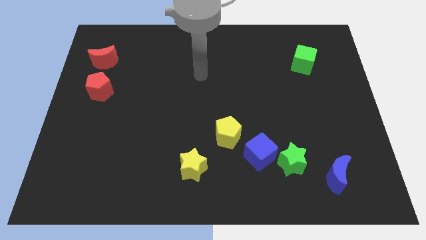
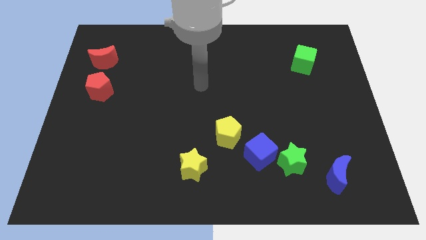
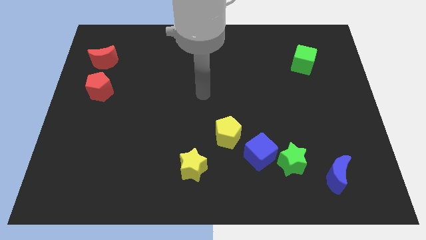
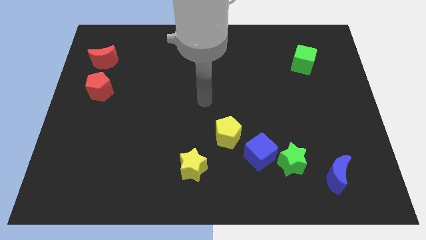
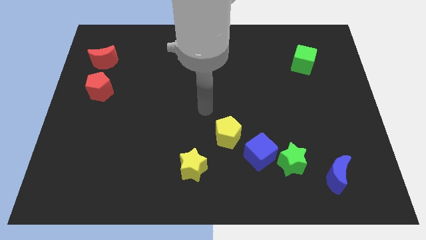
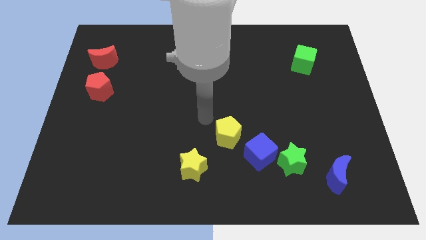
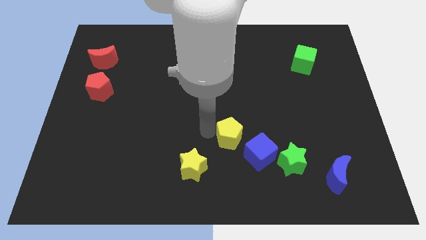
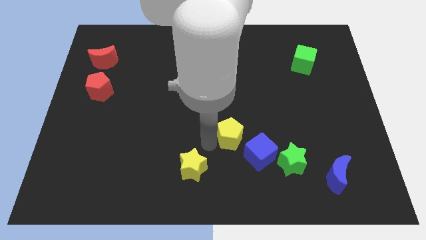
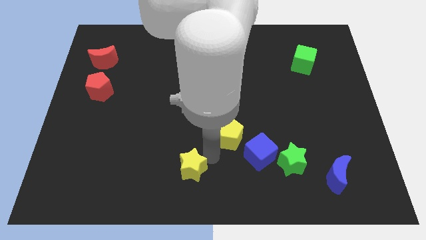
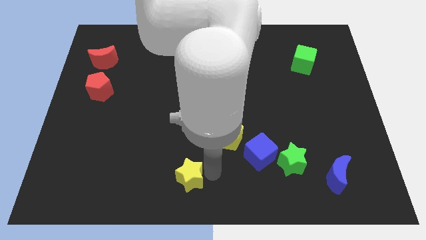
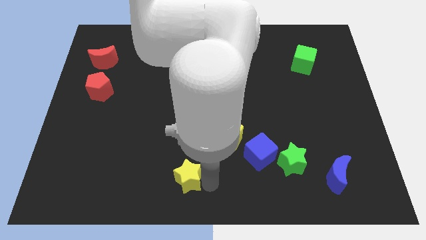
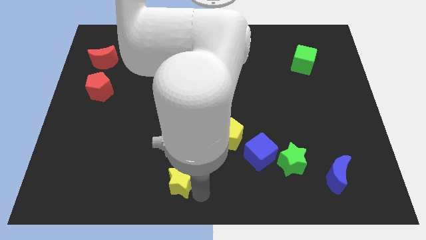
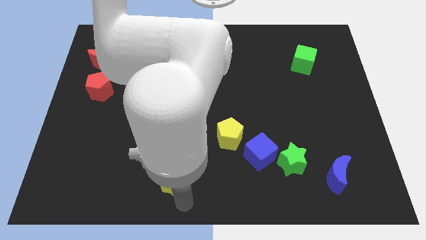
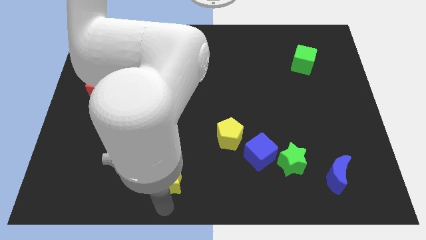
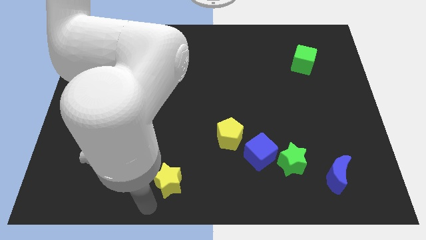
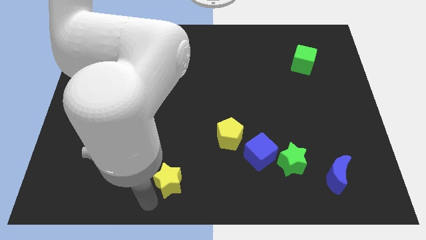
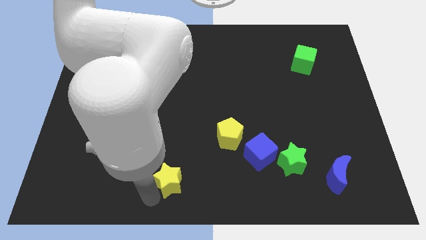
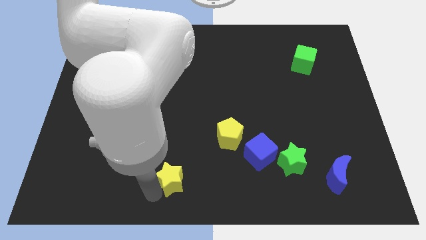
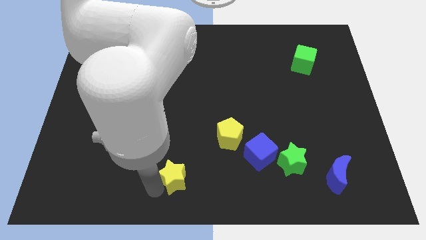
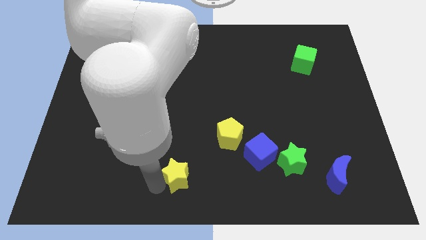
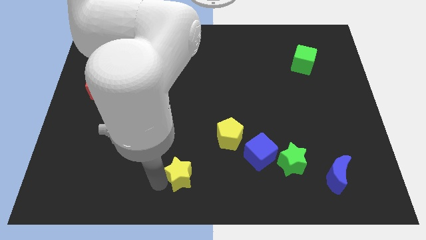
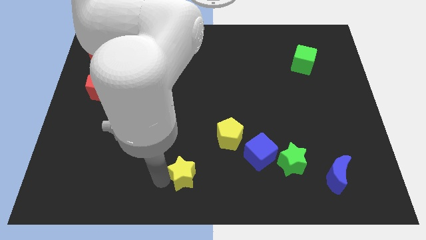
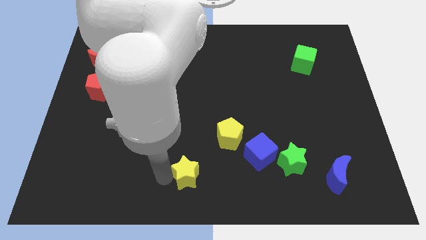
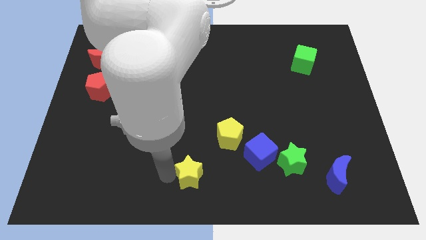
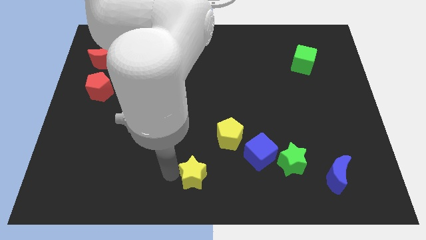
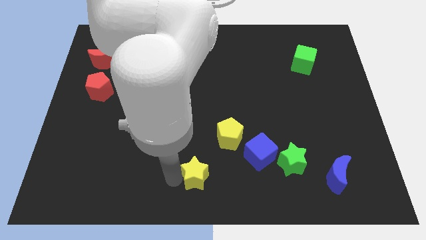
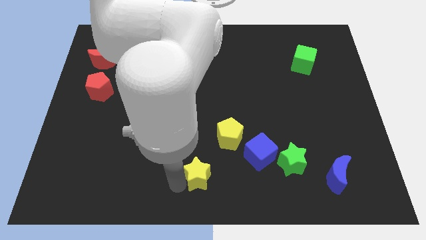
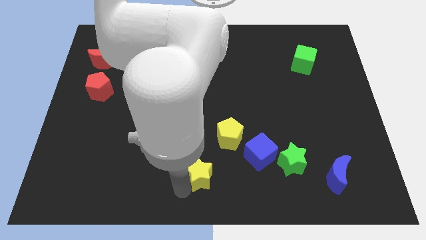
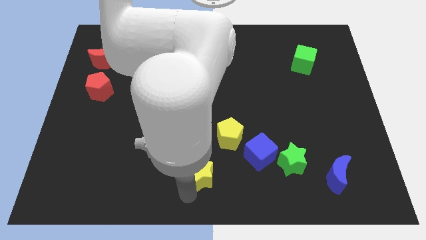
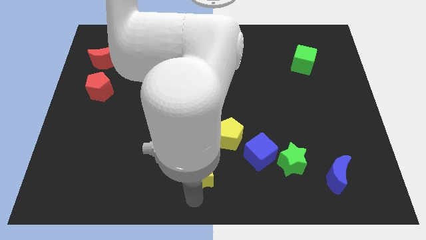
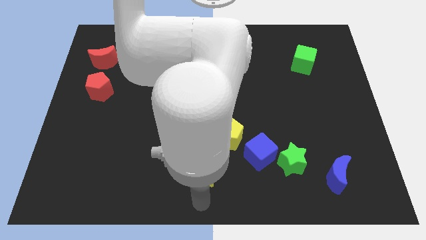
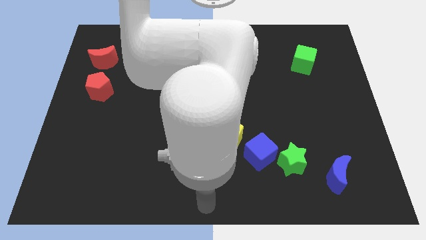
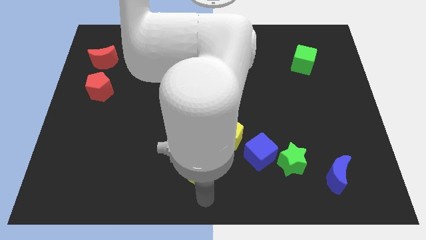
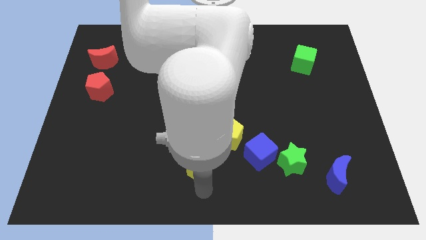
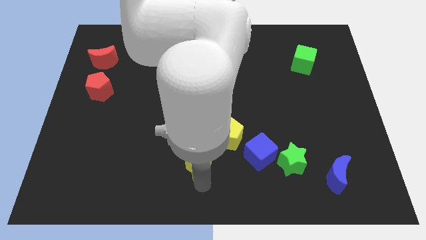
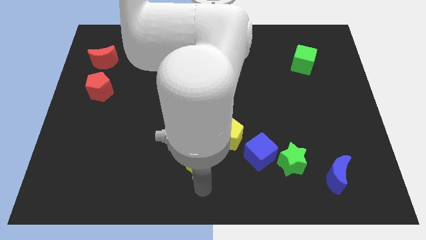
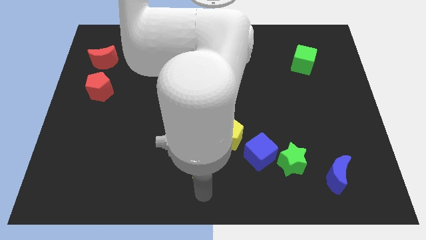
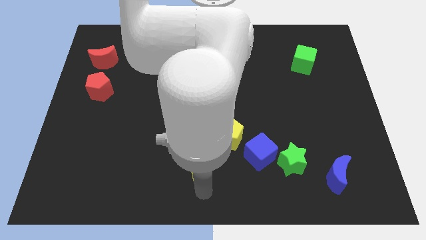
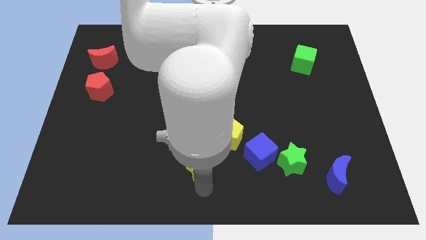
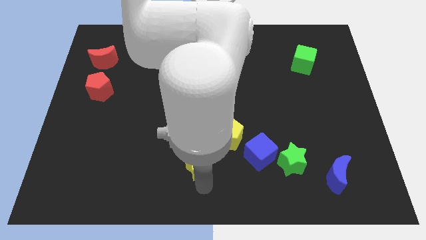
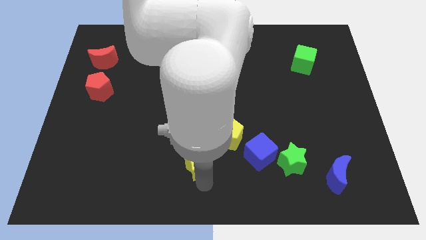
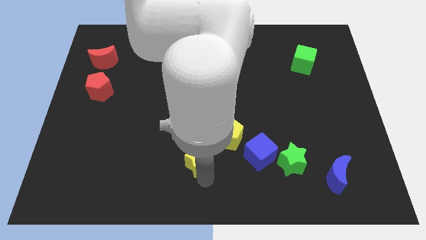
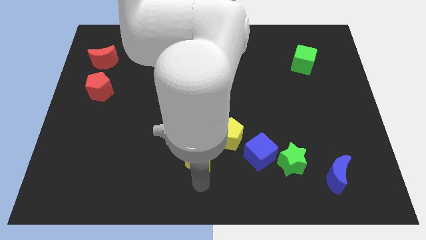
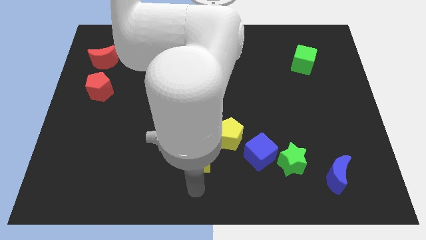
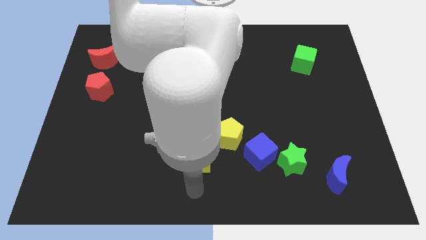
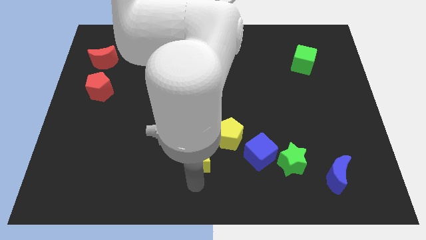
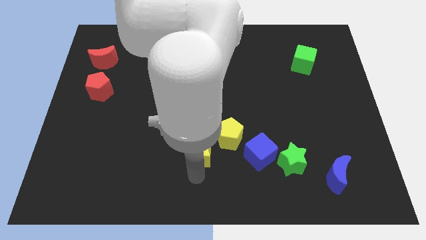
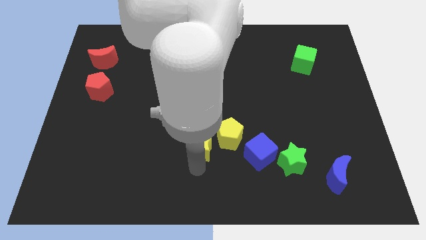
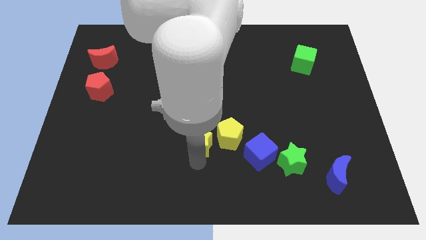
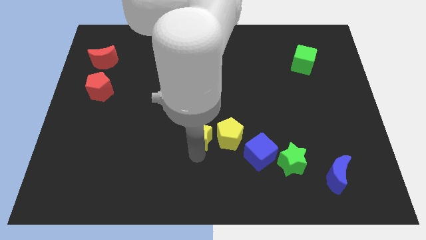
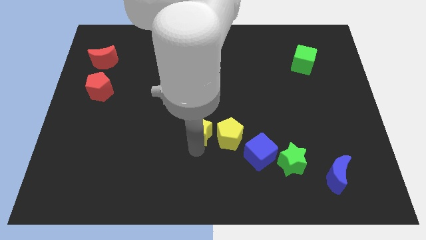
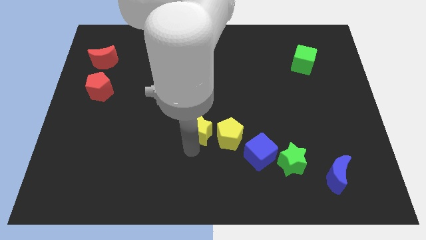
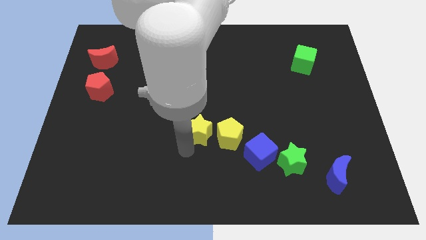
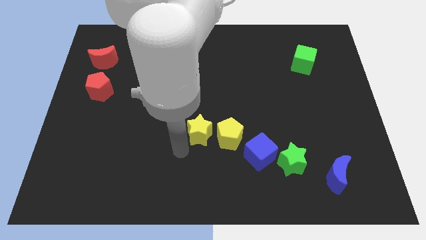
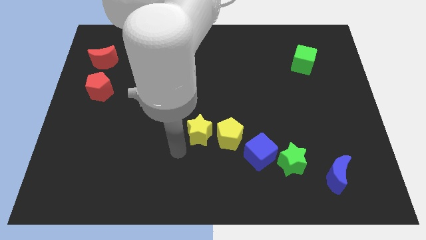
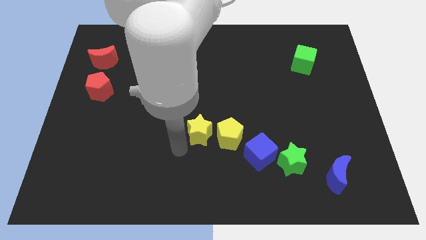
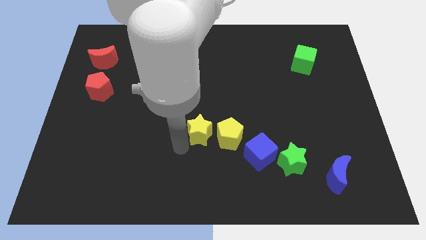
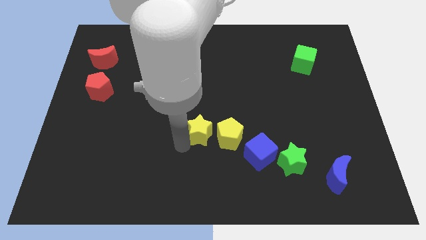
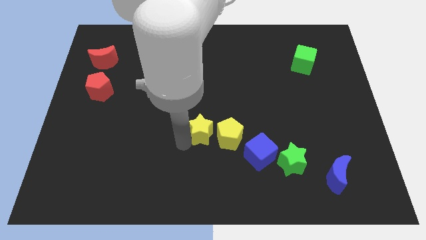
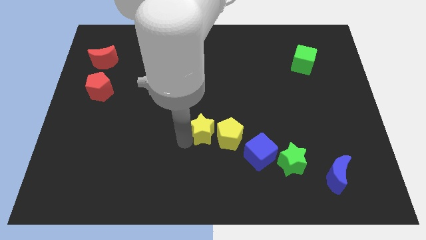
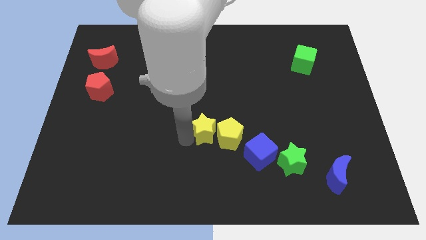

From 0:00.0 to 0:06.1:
slide the yellow star a bit up and right diagonally

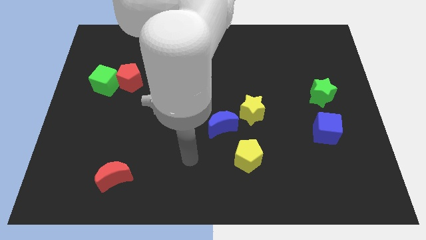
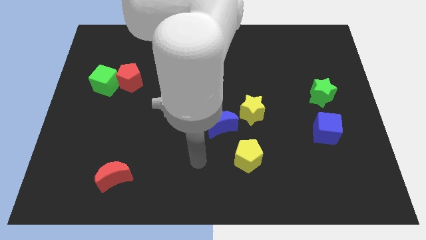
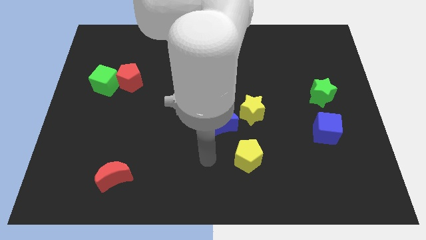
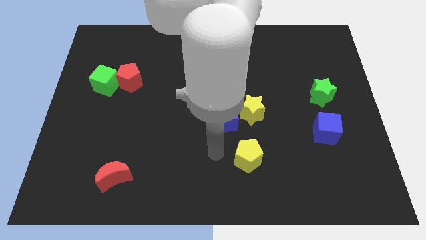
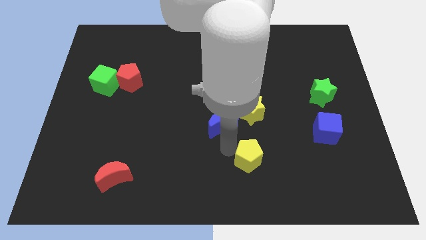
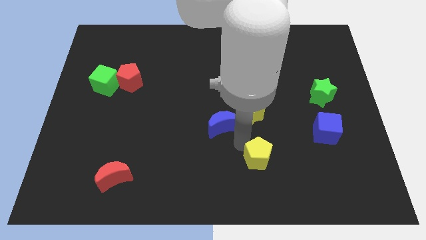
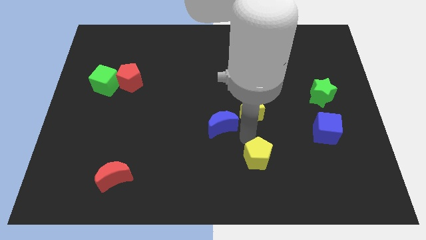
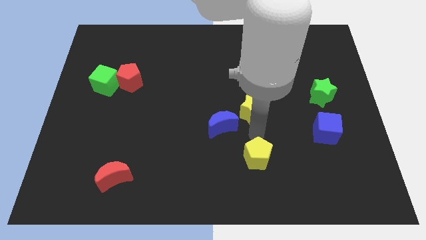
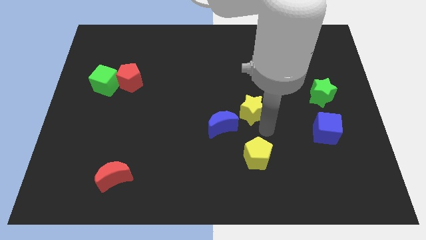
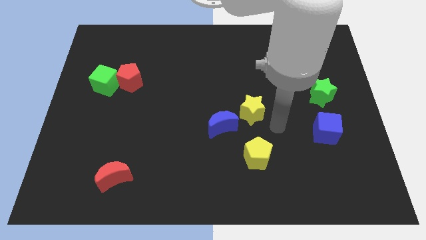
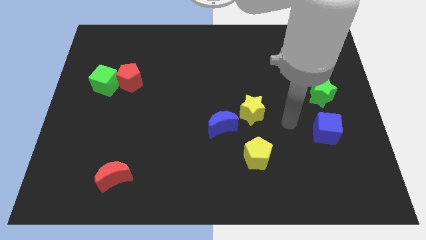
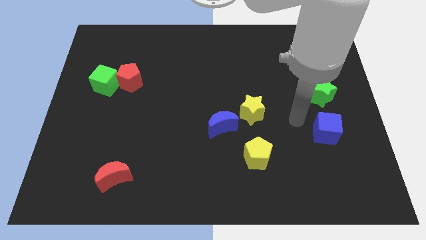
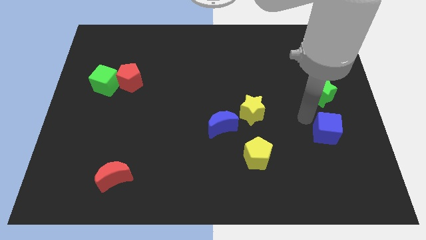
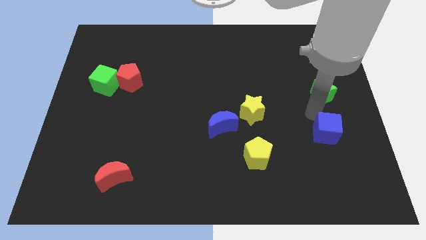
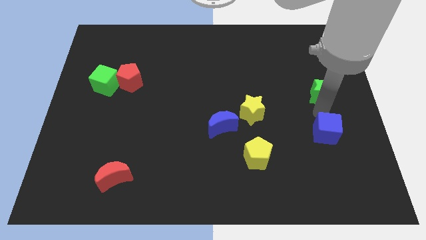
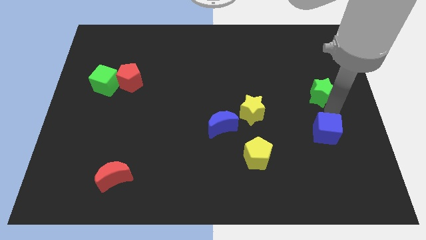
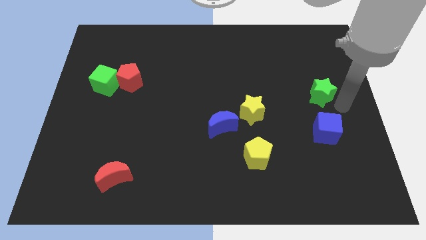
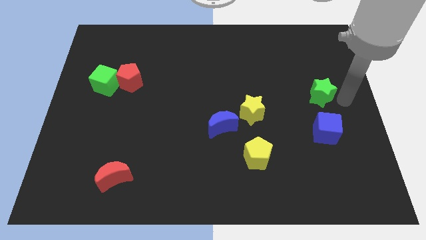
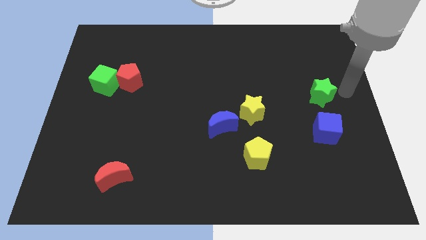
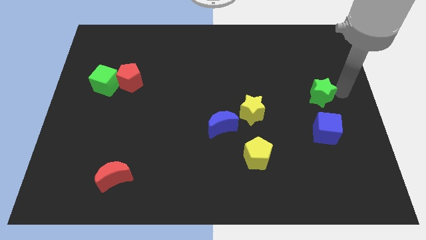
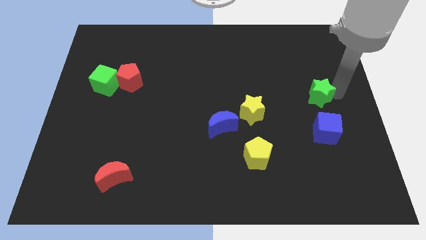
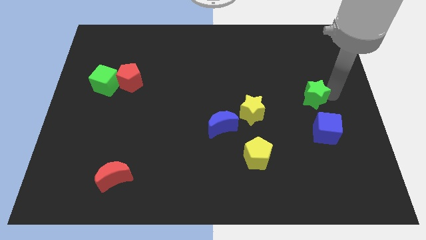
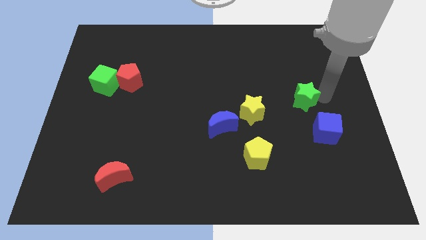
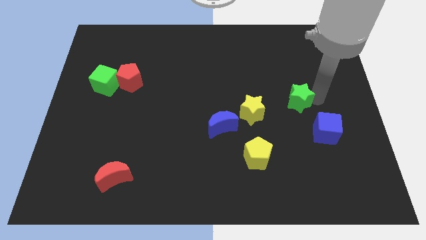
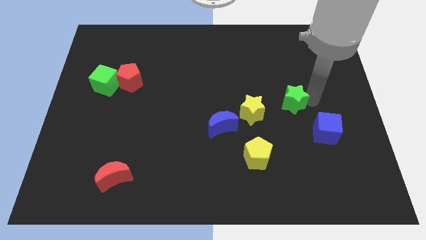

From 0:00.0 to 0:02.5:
slide the green star a little left
